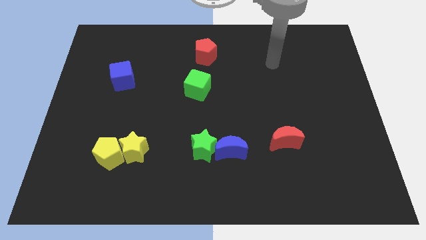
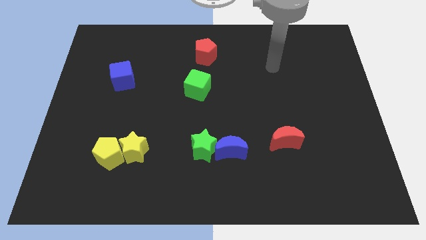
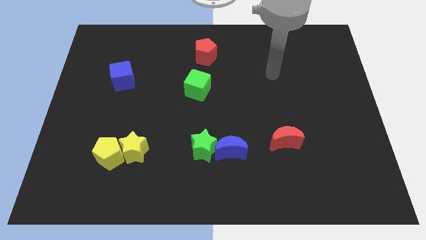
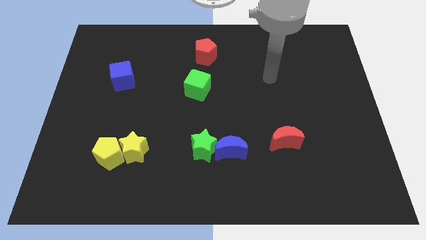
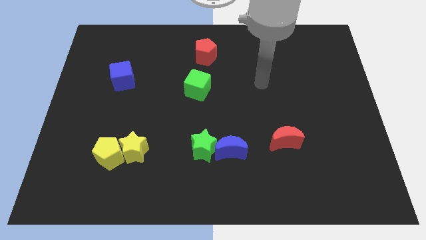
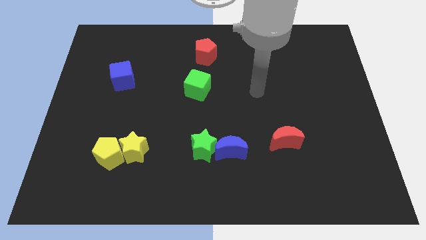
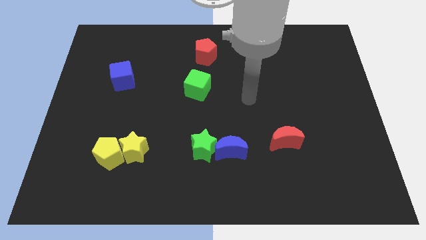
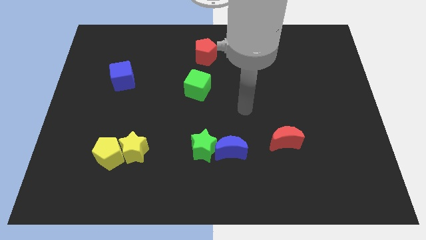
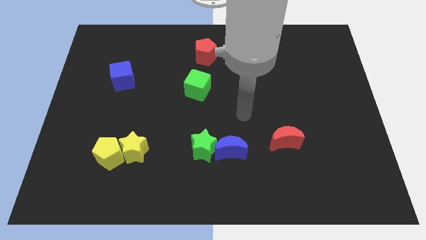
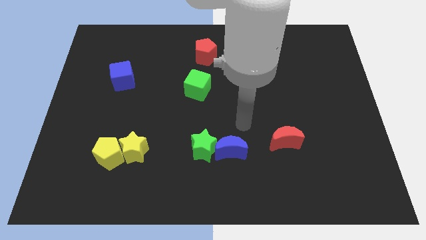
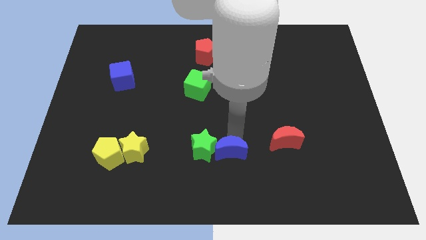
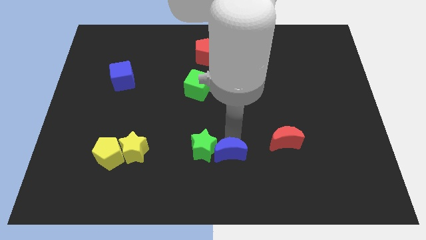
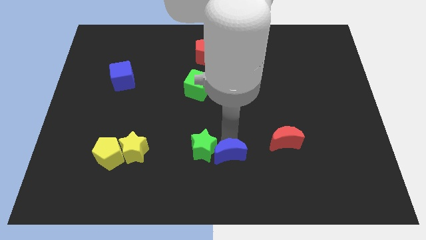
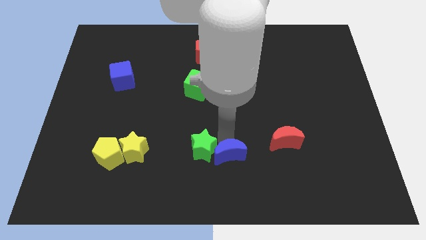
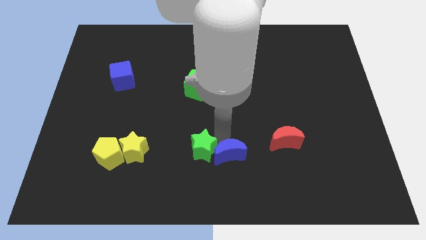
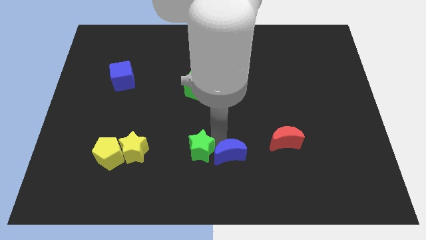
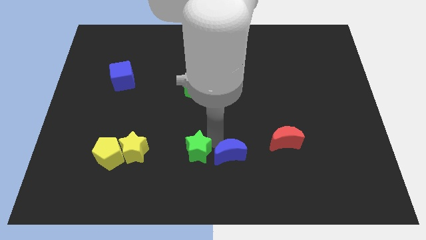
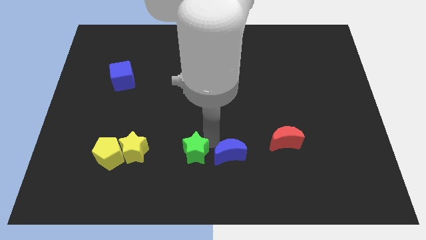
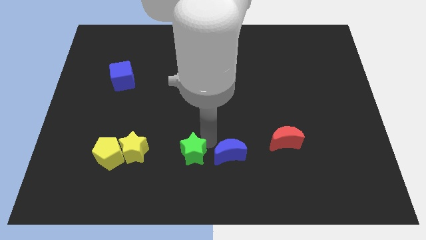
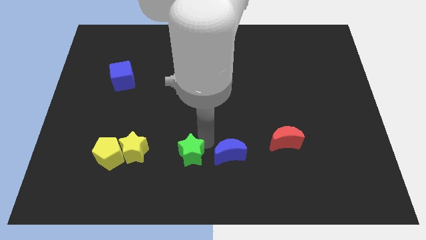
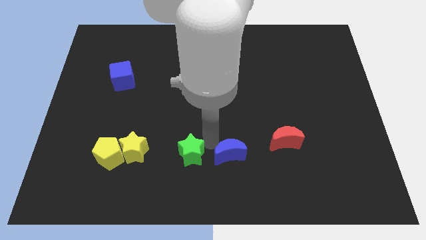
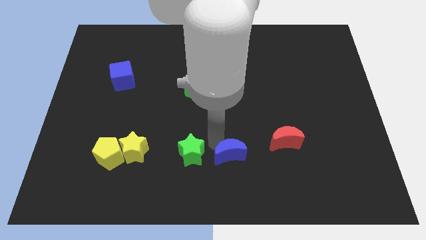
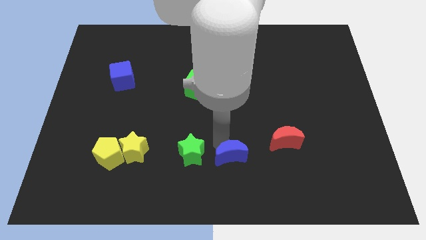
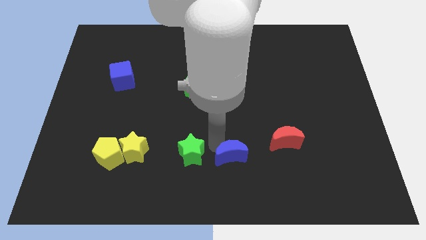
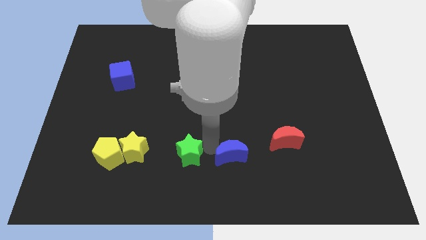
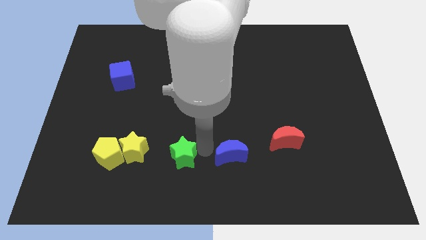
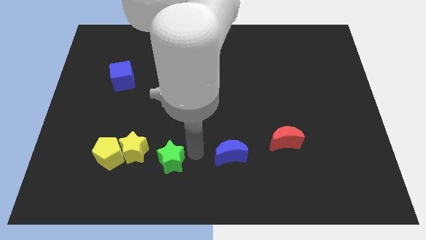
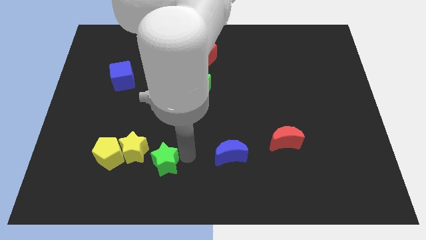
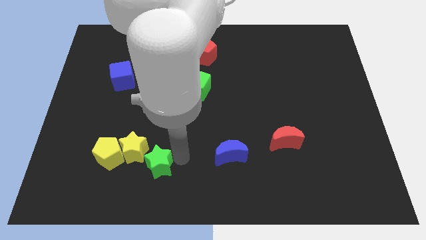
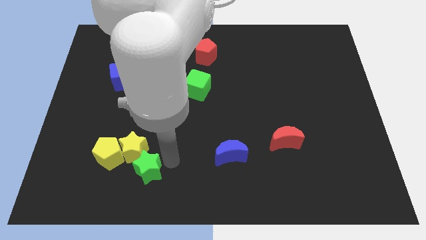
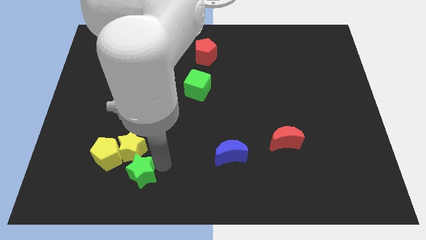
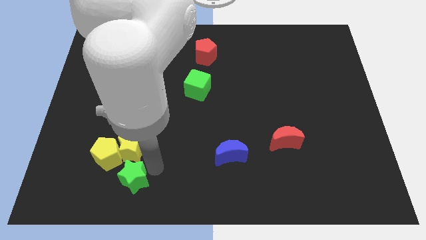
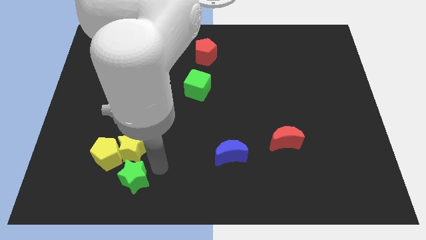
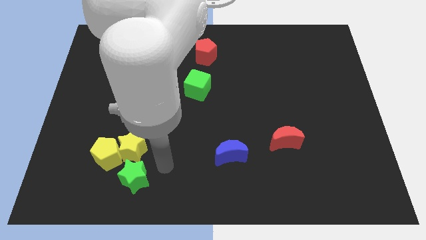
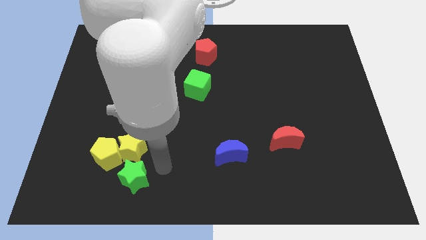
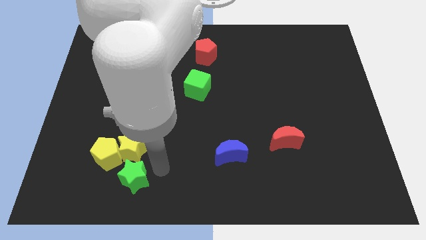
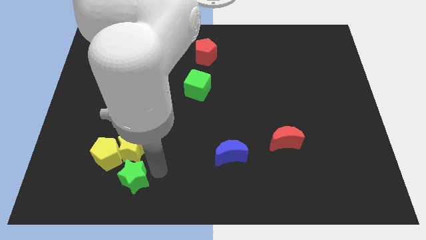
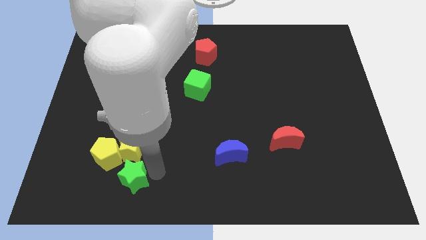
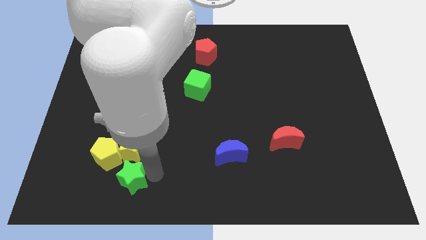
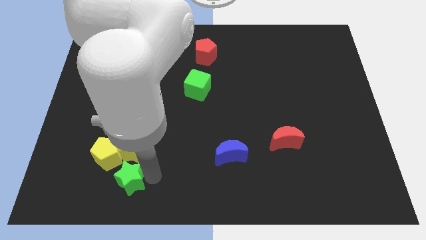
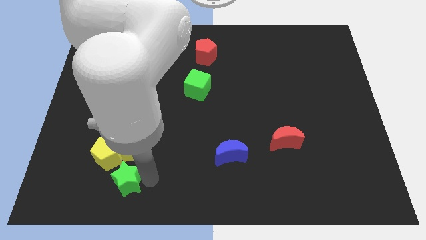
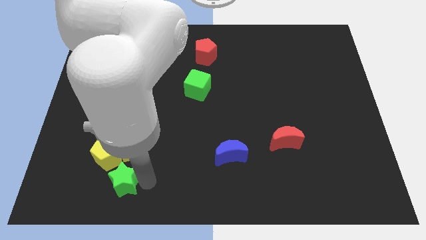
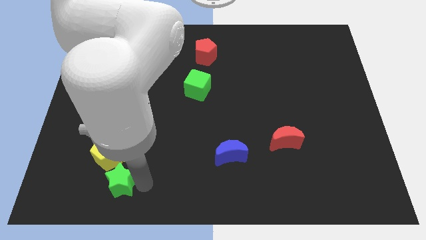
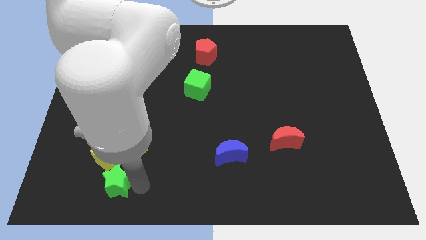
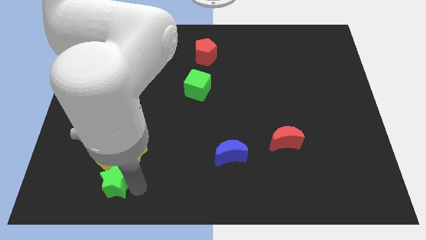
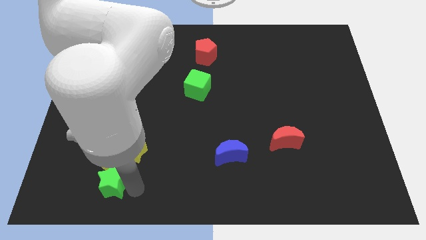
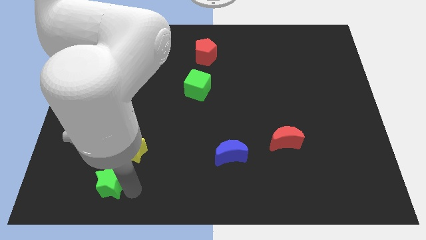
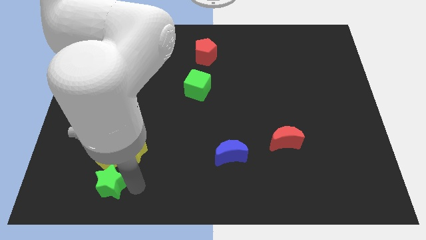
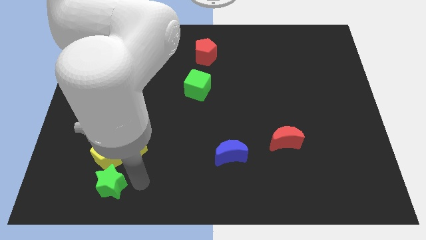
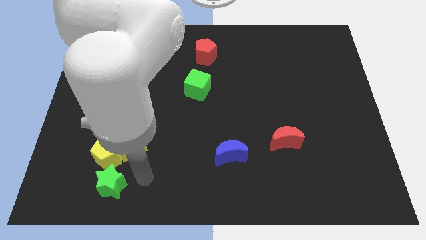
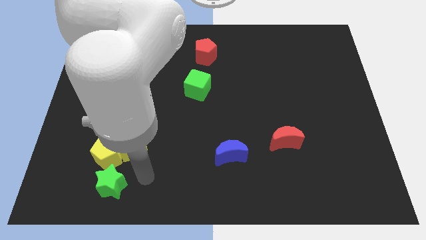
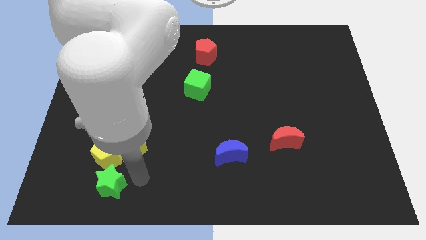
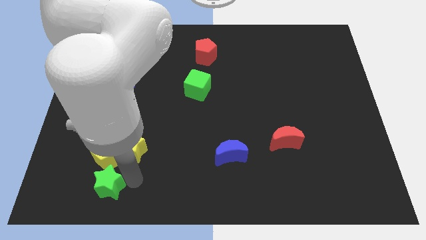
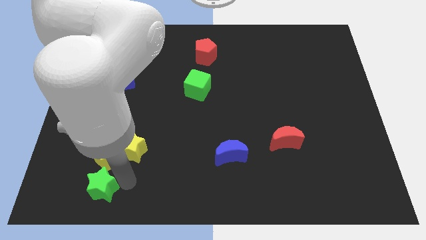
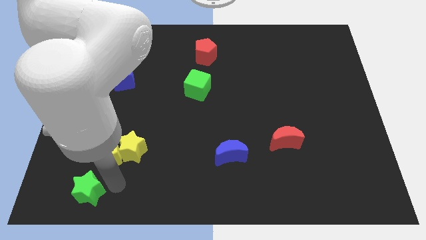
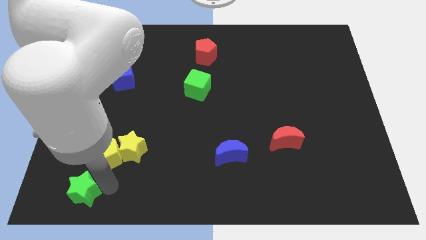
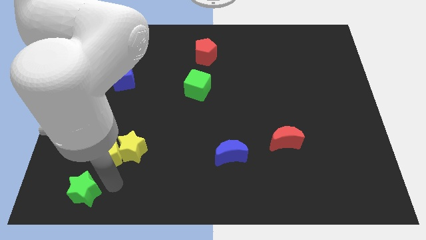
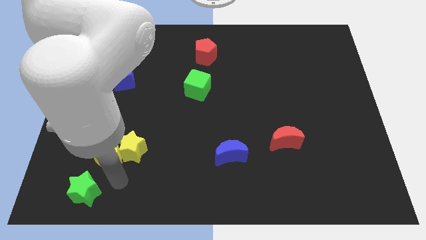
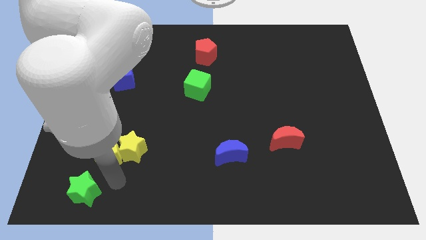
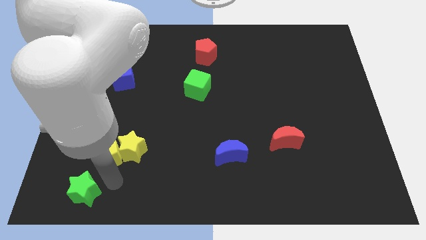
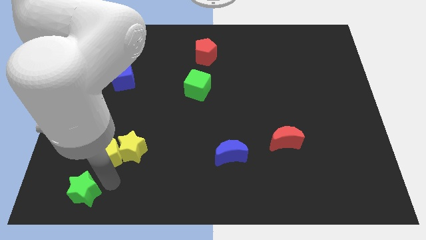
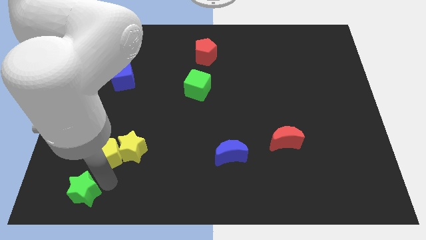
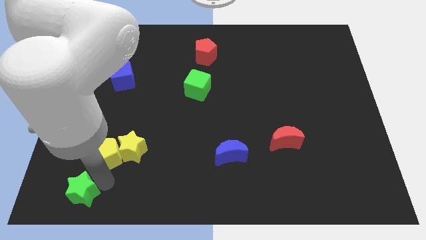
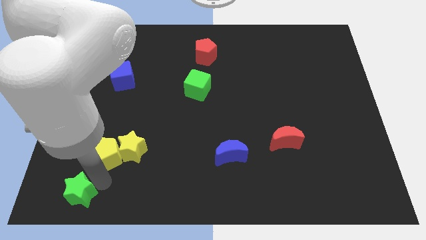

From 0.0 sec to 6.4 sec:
push the green star to the bottom left corner

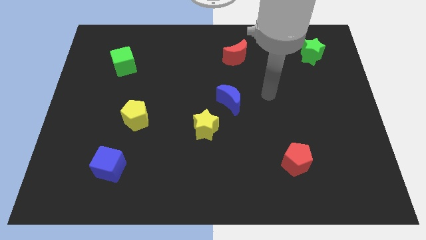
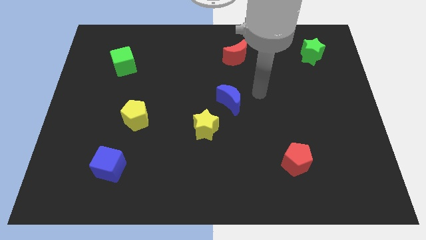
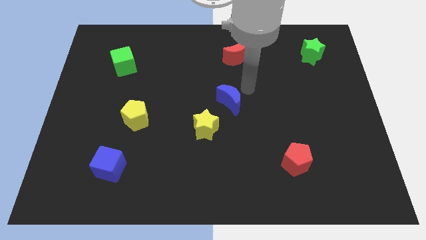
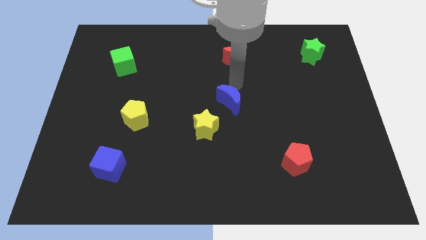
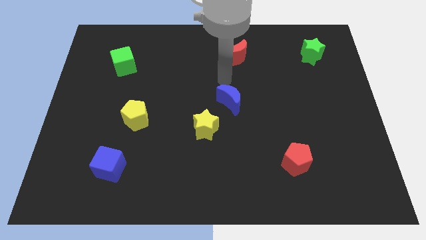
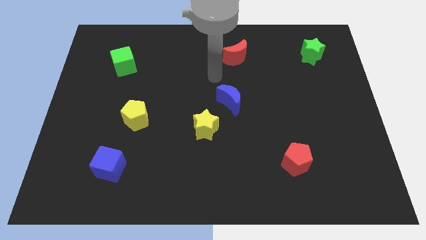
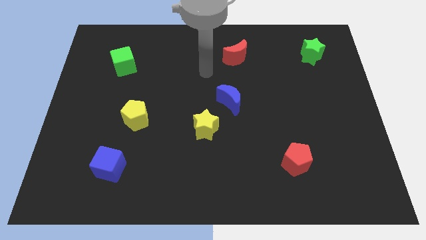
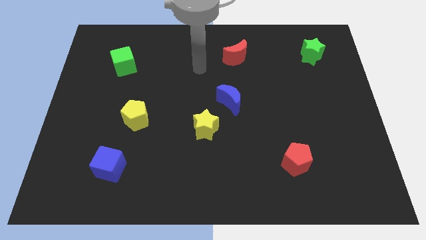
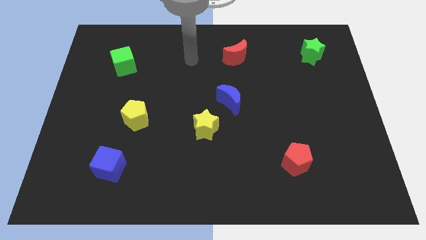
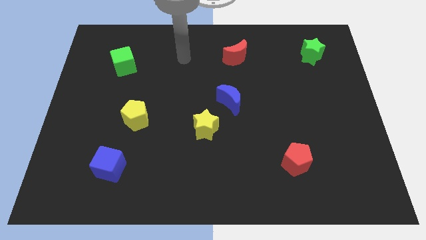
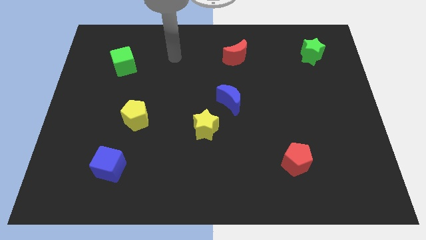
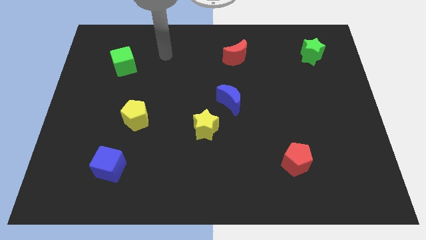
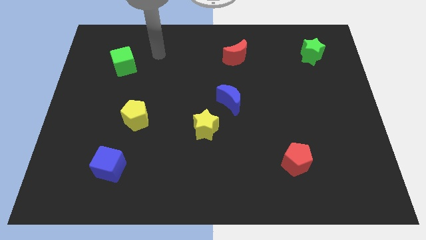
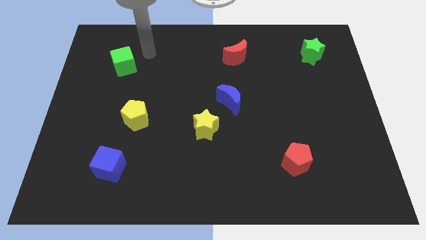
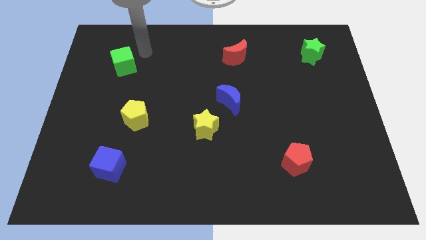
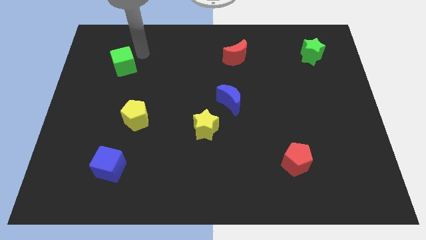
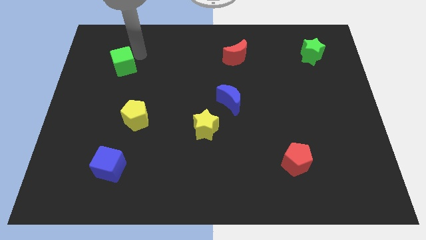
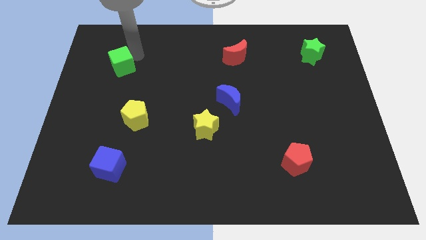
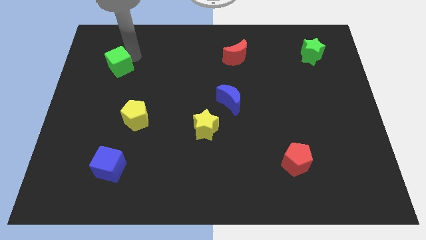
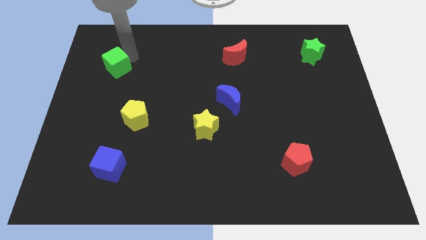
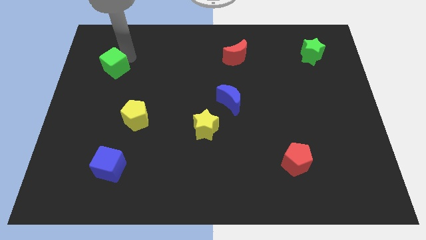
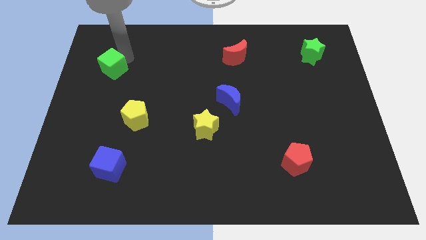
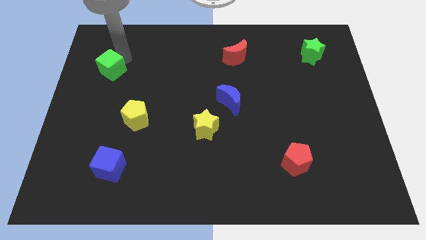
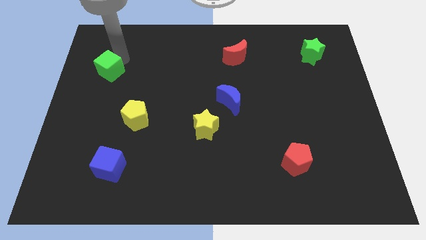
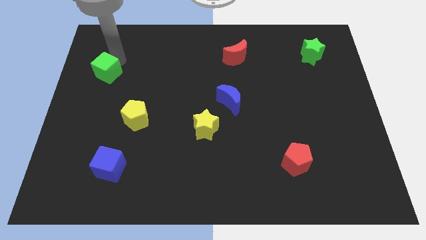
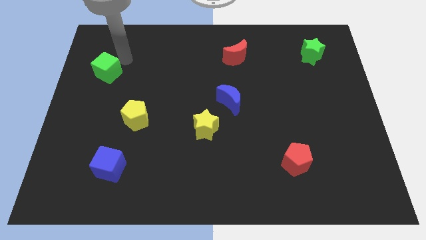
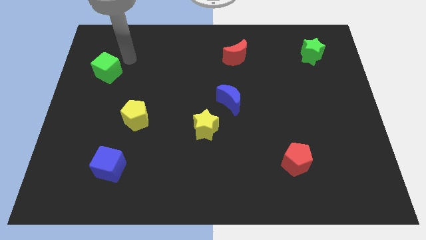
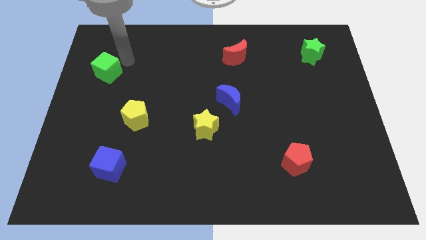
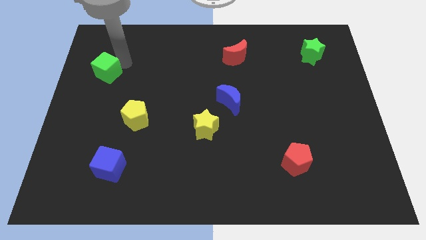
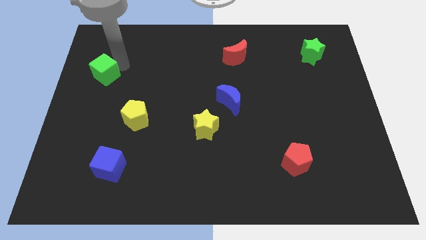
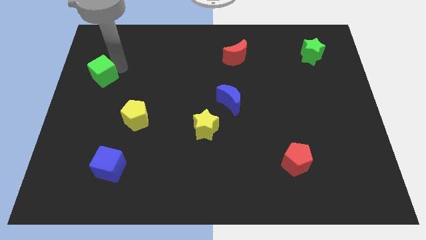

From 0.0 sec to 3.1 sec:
slide the green cube to the center left
